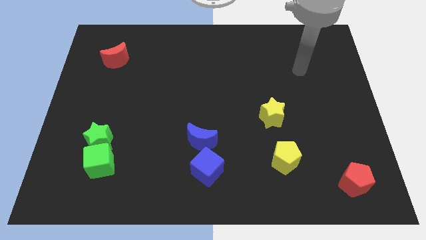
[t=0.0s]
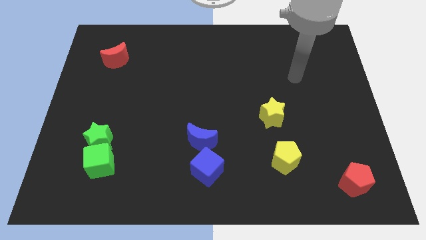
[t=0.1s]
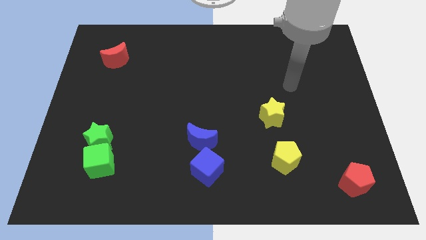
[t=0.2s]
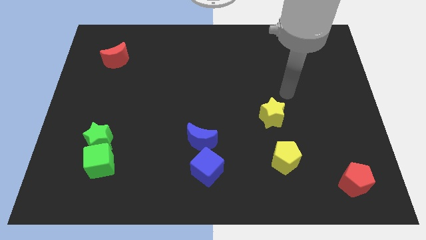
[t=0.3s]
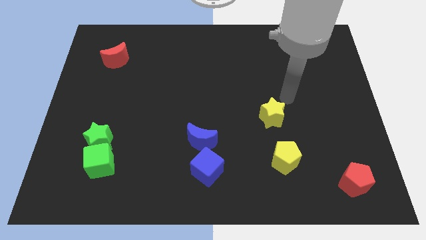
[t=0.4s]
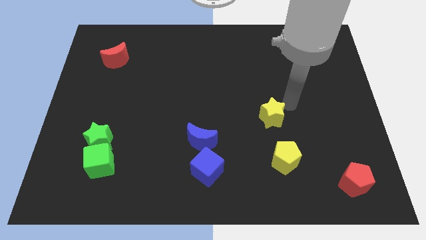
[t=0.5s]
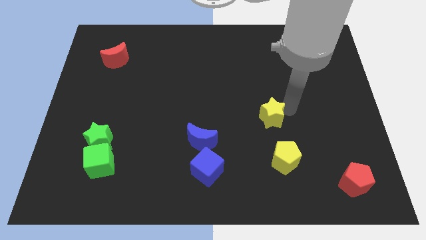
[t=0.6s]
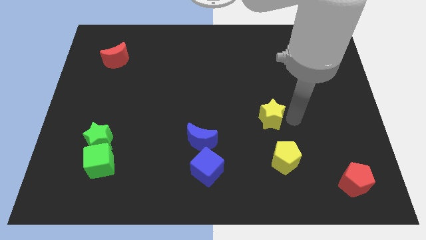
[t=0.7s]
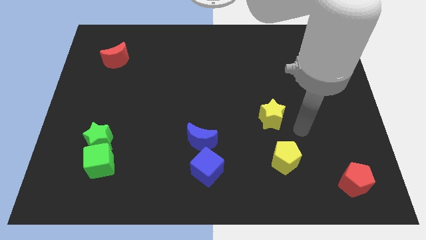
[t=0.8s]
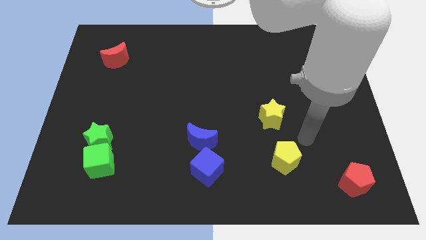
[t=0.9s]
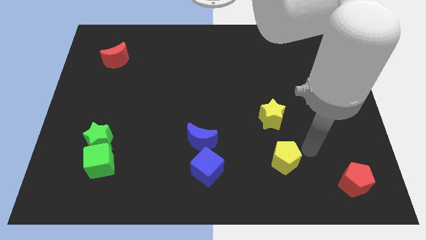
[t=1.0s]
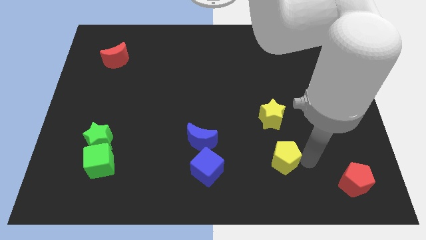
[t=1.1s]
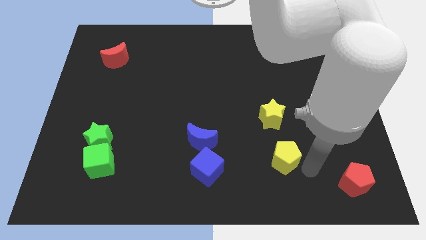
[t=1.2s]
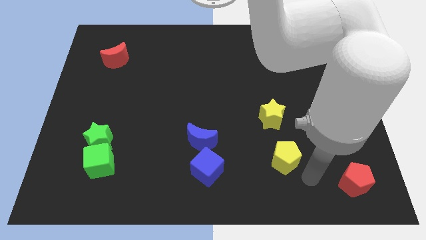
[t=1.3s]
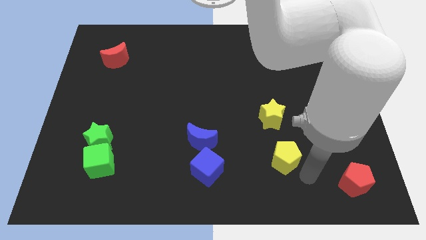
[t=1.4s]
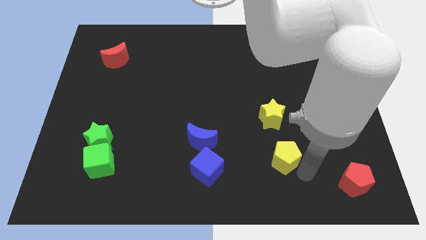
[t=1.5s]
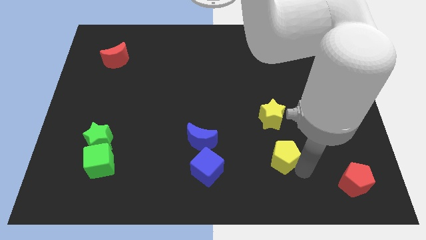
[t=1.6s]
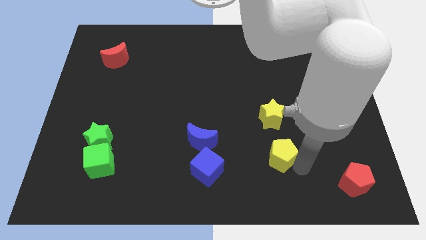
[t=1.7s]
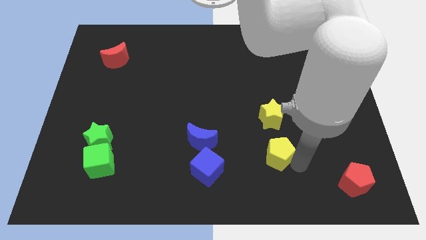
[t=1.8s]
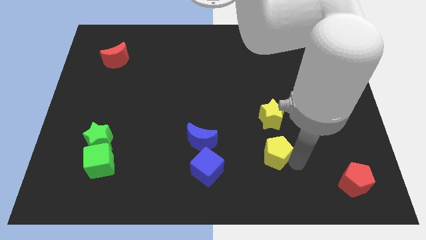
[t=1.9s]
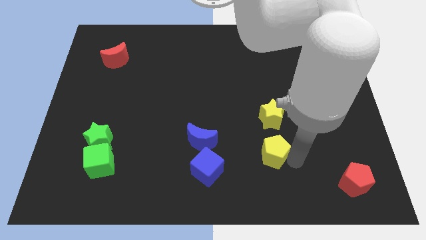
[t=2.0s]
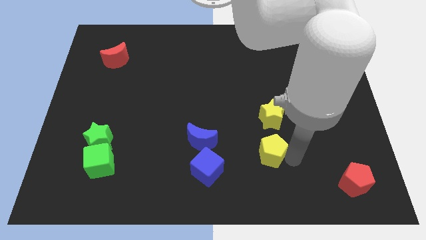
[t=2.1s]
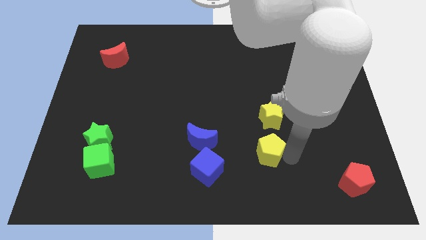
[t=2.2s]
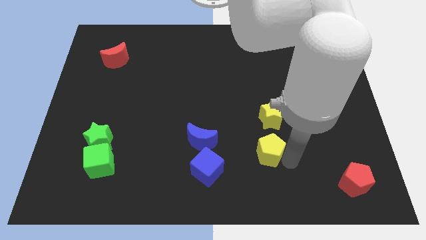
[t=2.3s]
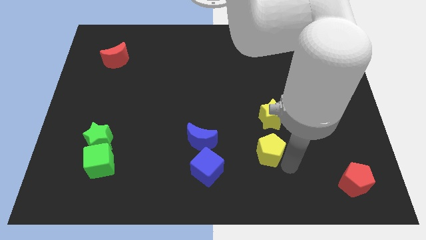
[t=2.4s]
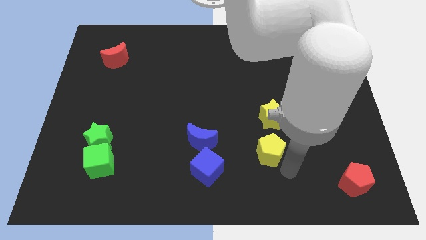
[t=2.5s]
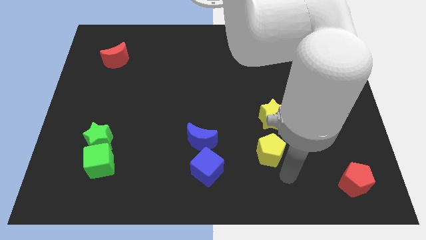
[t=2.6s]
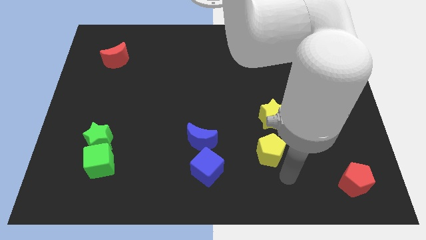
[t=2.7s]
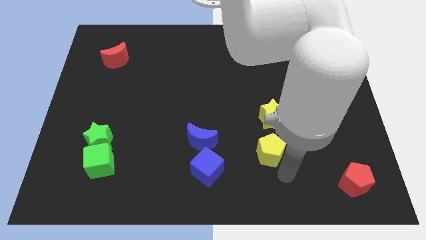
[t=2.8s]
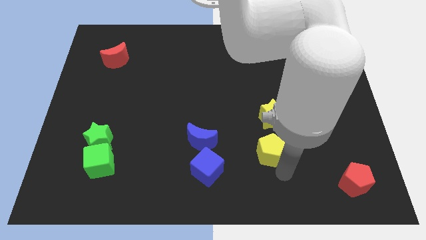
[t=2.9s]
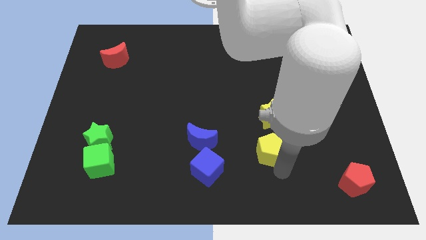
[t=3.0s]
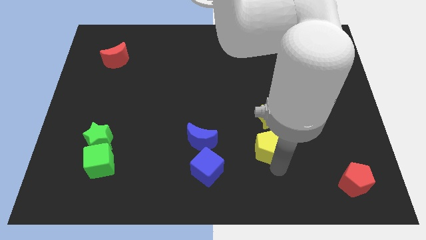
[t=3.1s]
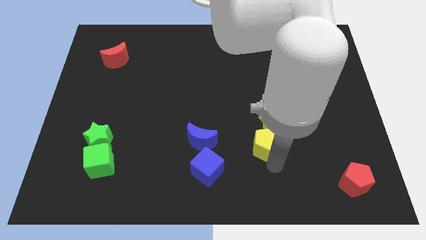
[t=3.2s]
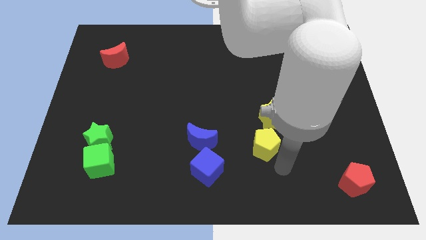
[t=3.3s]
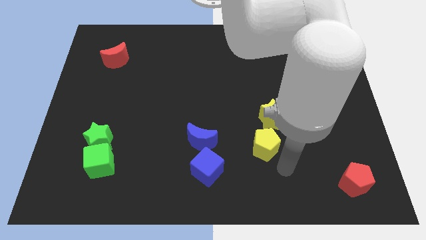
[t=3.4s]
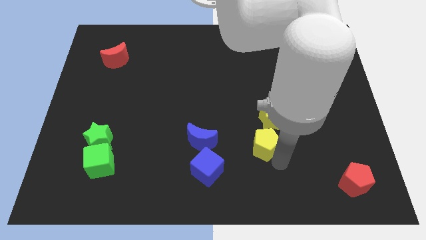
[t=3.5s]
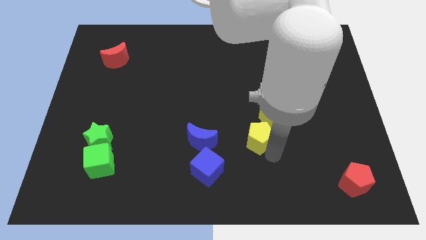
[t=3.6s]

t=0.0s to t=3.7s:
move the yellow pentagon a little bit up and to the left diagonally

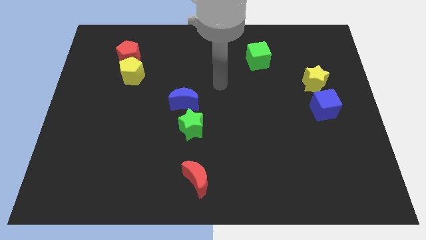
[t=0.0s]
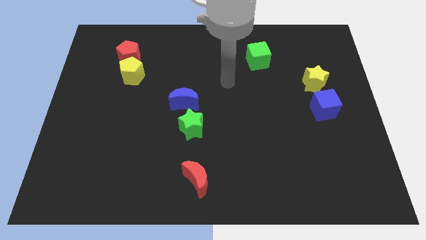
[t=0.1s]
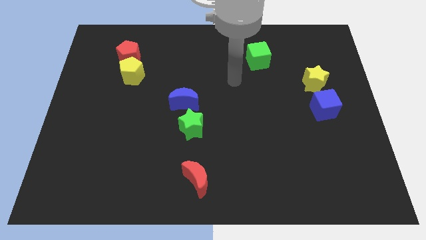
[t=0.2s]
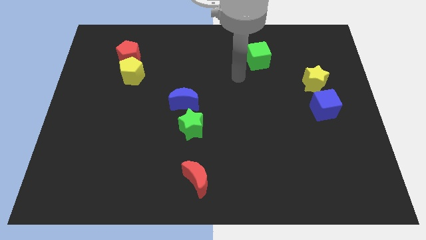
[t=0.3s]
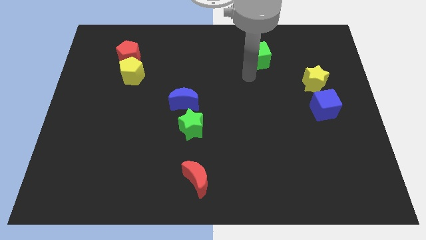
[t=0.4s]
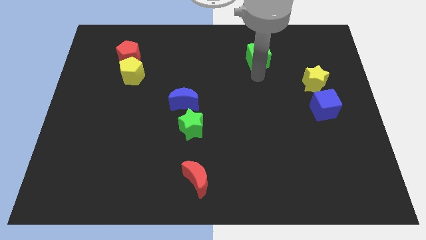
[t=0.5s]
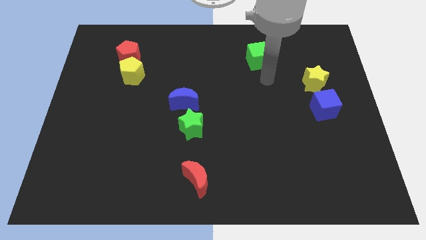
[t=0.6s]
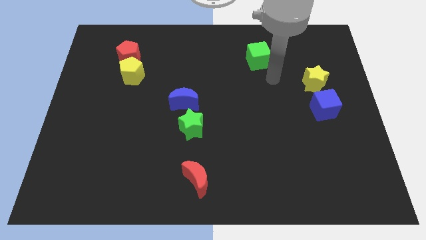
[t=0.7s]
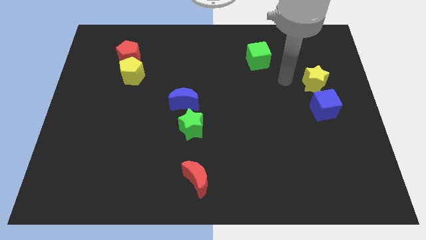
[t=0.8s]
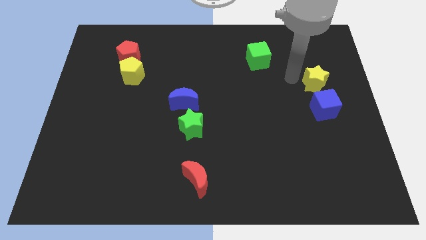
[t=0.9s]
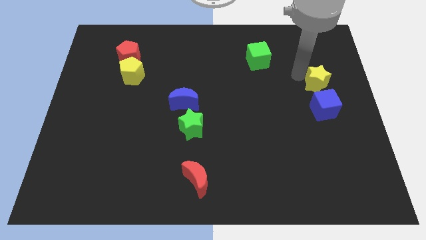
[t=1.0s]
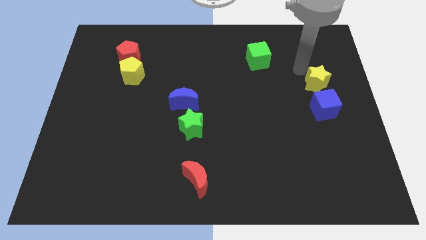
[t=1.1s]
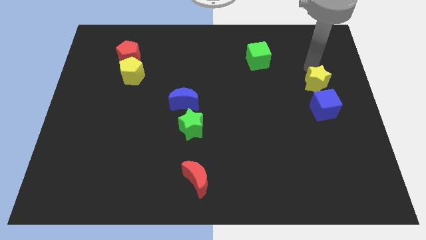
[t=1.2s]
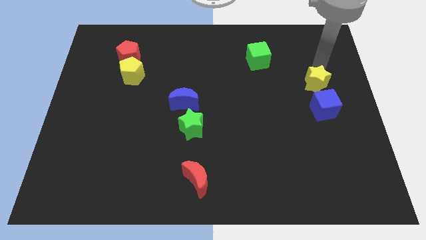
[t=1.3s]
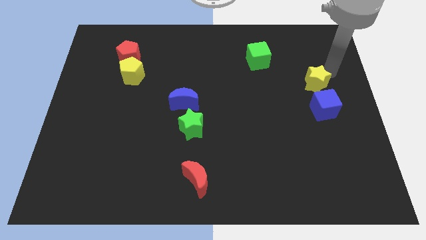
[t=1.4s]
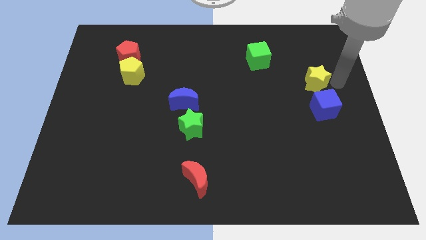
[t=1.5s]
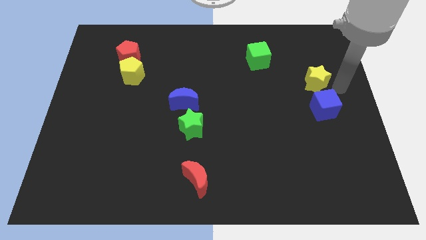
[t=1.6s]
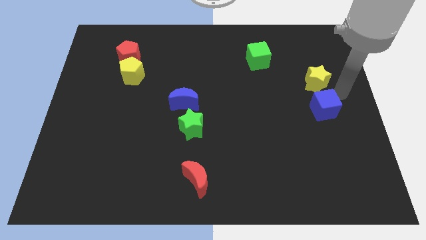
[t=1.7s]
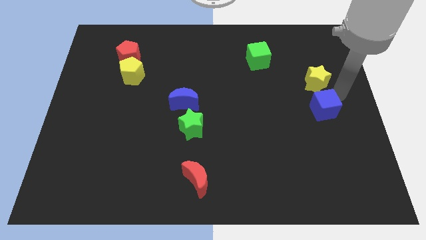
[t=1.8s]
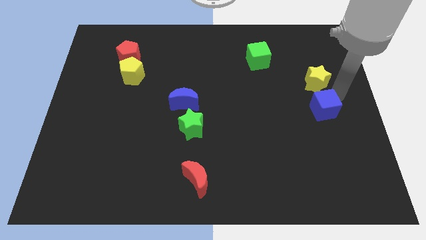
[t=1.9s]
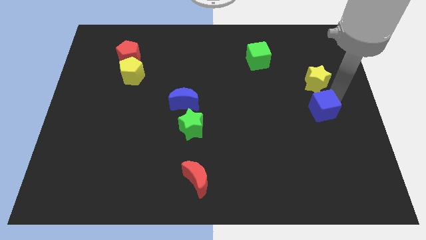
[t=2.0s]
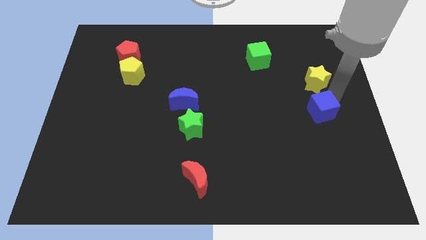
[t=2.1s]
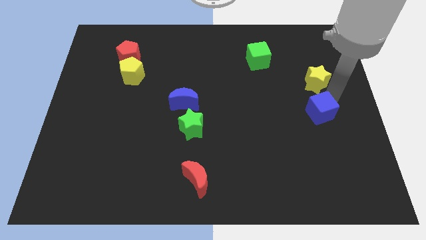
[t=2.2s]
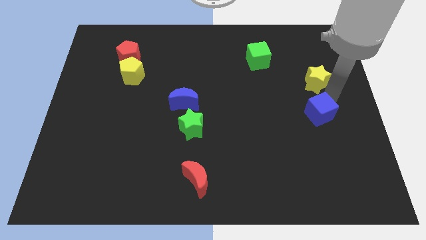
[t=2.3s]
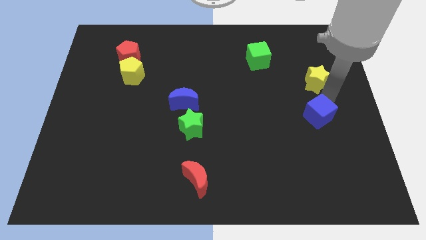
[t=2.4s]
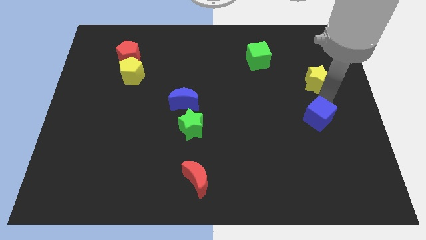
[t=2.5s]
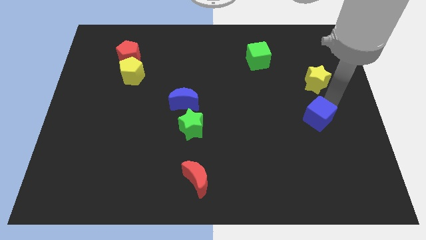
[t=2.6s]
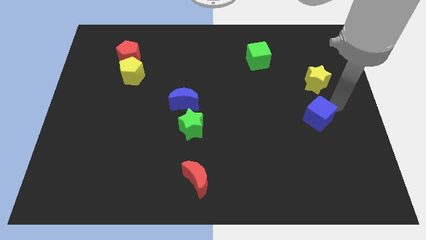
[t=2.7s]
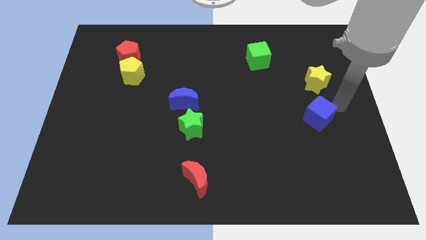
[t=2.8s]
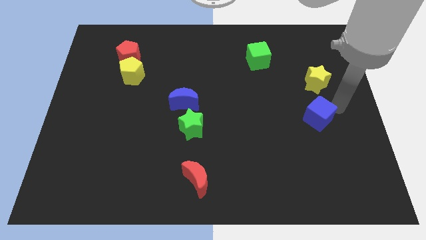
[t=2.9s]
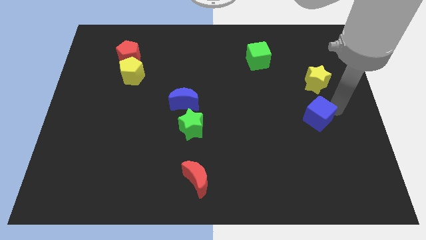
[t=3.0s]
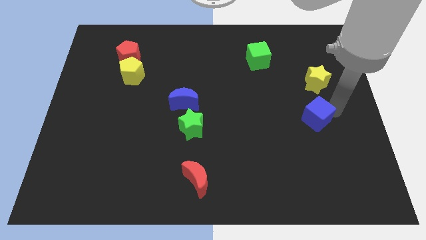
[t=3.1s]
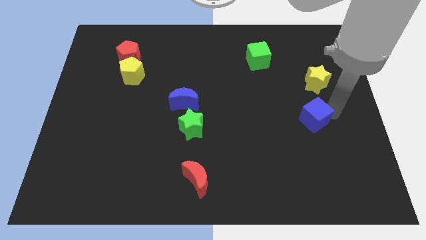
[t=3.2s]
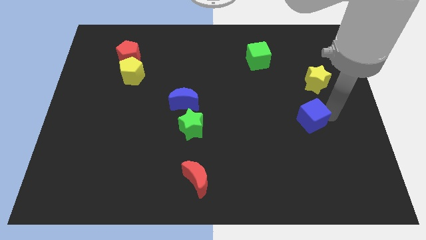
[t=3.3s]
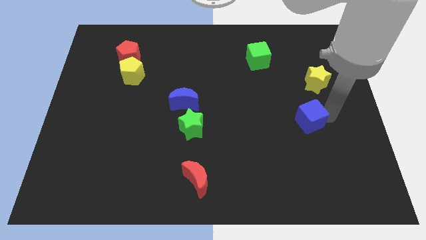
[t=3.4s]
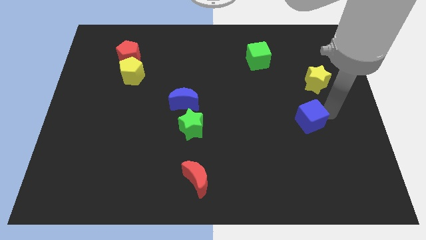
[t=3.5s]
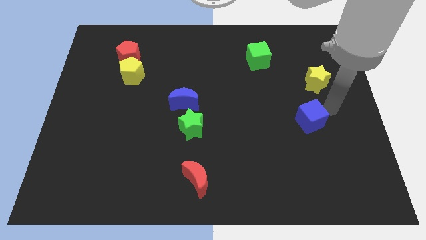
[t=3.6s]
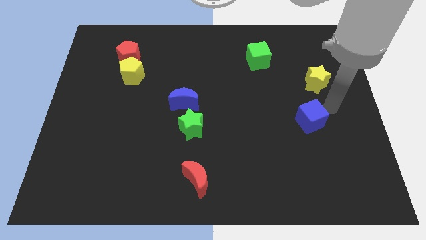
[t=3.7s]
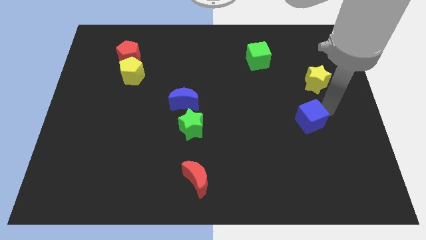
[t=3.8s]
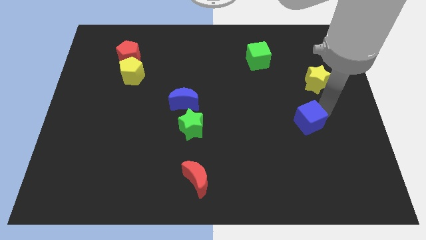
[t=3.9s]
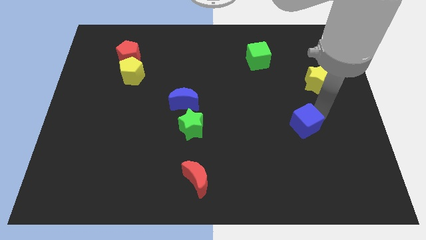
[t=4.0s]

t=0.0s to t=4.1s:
slightly push the blue cube downwards and to the left

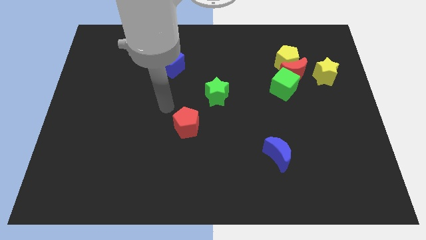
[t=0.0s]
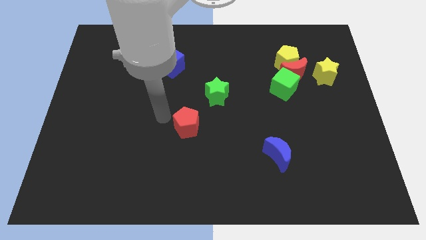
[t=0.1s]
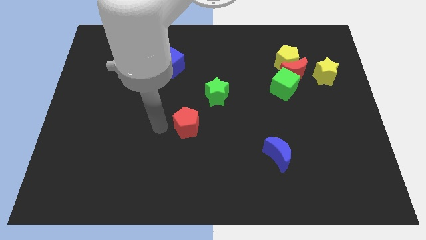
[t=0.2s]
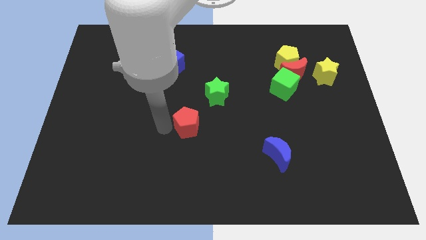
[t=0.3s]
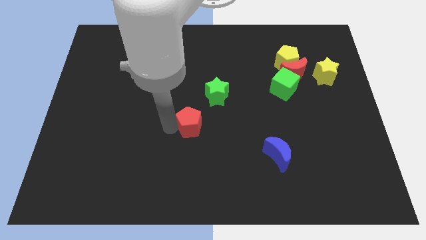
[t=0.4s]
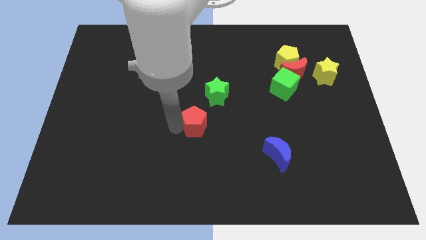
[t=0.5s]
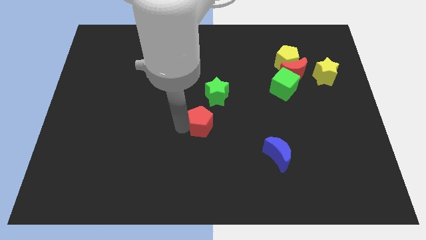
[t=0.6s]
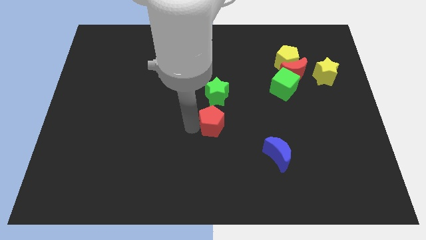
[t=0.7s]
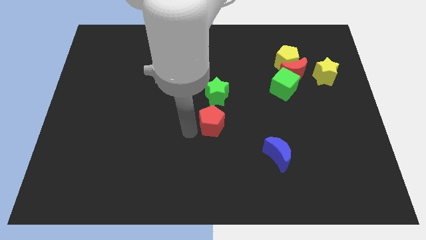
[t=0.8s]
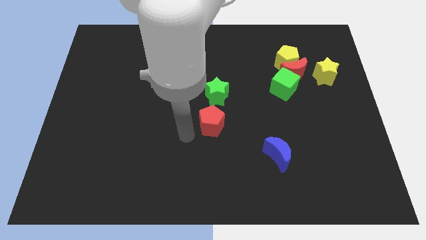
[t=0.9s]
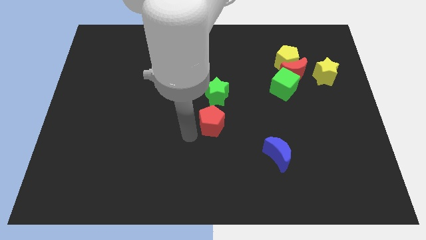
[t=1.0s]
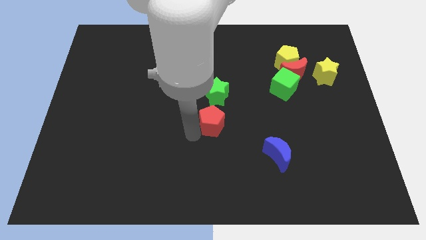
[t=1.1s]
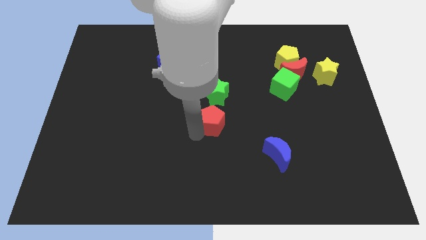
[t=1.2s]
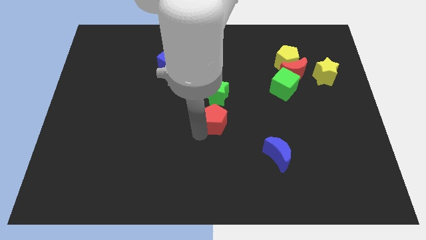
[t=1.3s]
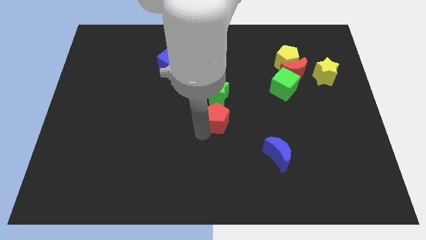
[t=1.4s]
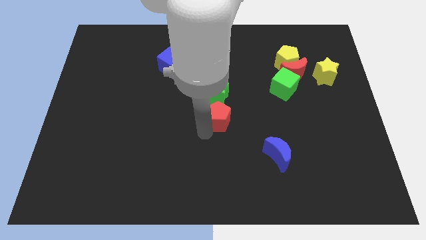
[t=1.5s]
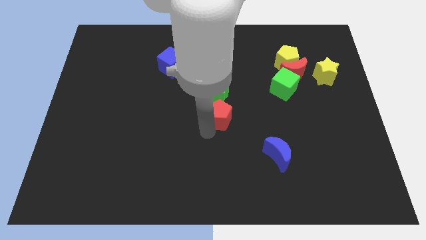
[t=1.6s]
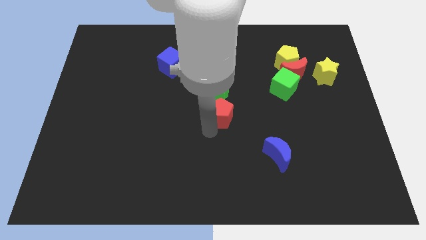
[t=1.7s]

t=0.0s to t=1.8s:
move the red pentagon somewhat upwards and right
